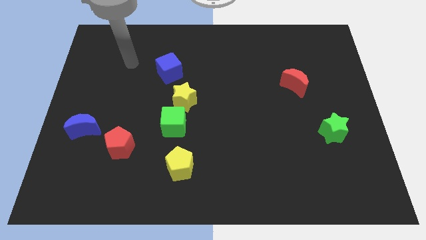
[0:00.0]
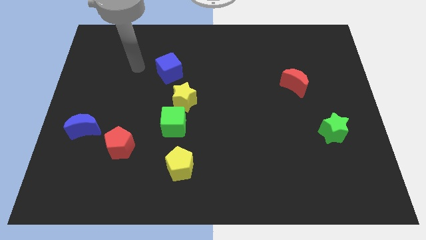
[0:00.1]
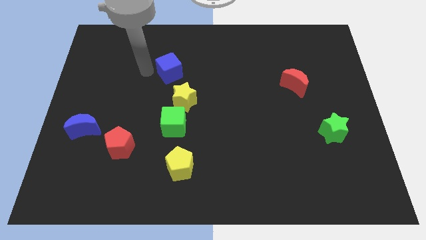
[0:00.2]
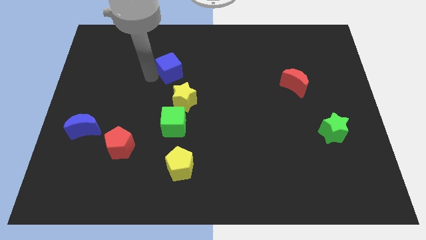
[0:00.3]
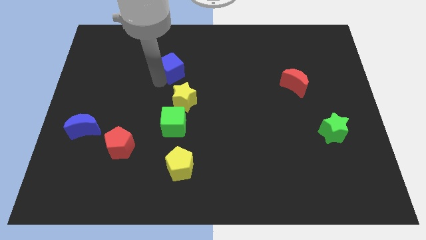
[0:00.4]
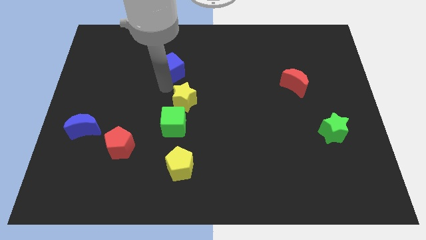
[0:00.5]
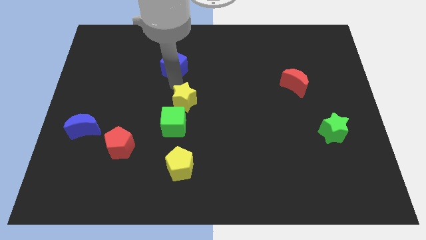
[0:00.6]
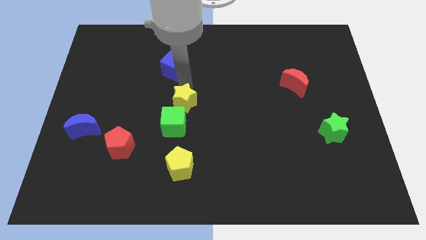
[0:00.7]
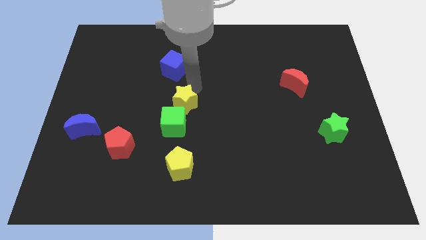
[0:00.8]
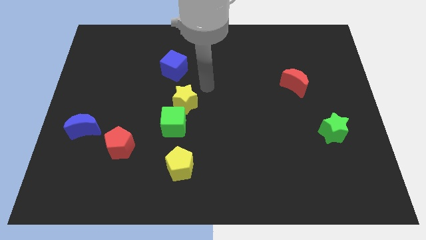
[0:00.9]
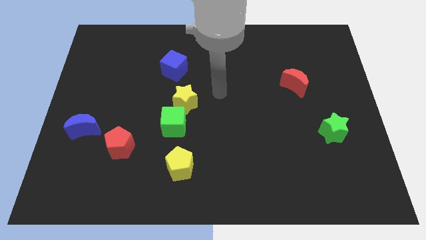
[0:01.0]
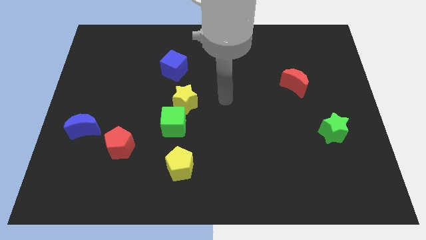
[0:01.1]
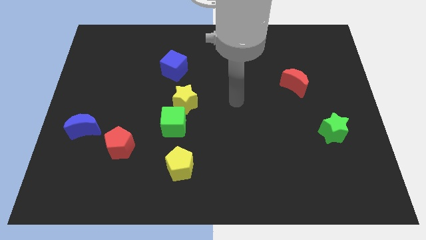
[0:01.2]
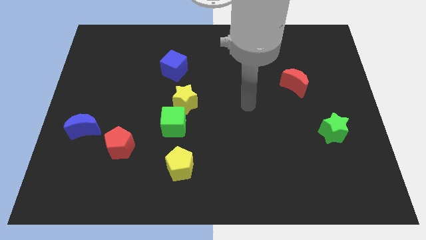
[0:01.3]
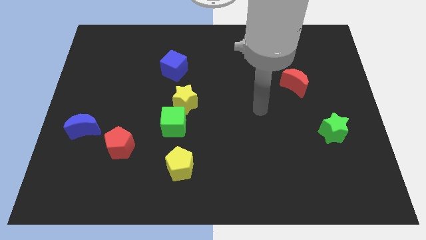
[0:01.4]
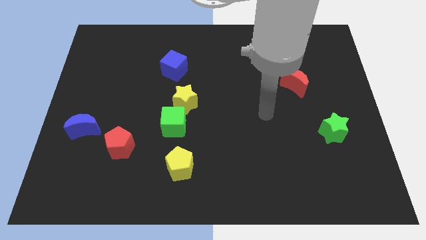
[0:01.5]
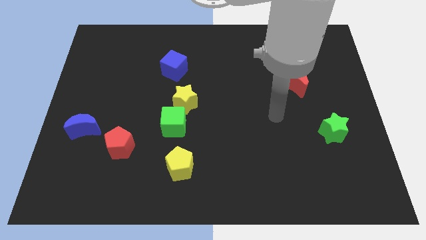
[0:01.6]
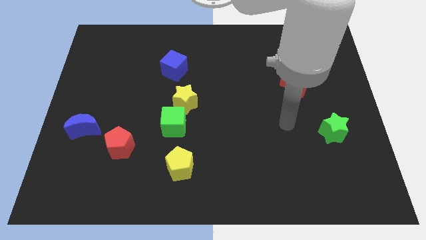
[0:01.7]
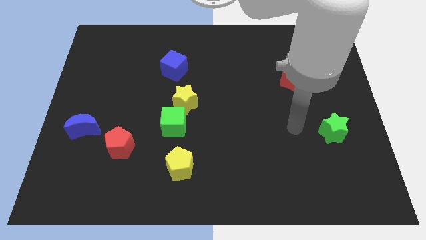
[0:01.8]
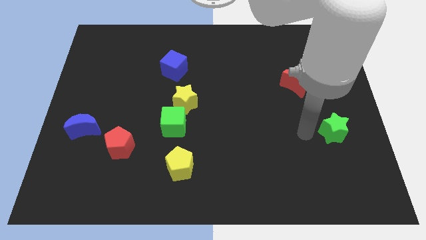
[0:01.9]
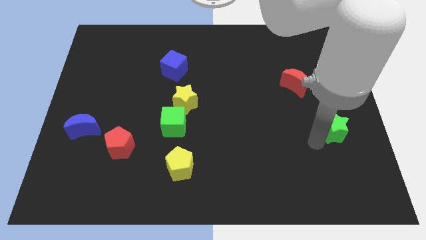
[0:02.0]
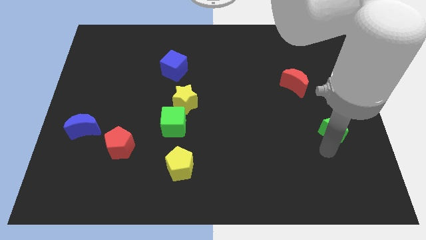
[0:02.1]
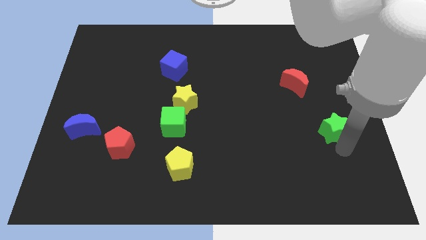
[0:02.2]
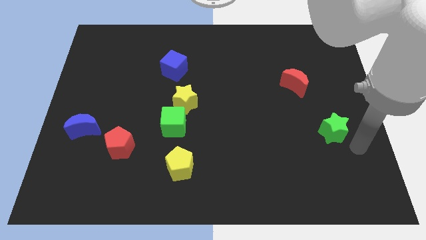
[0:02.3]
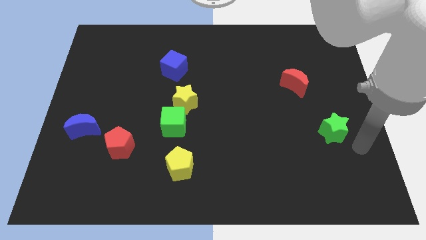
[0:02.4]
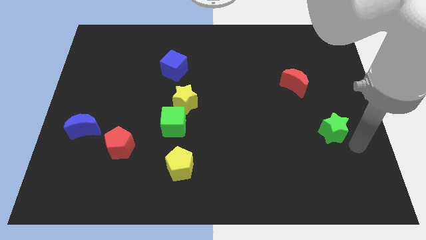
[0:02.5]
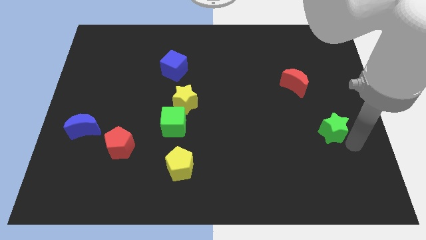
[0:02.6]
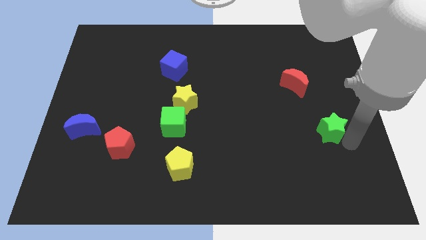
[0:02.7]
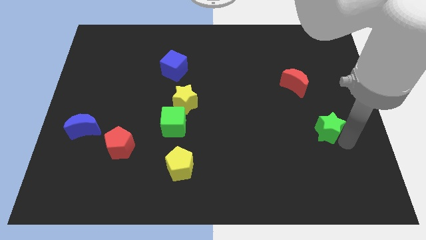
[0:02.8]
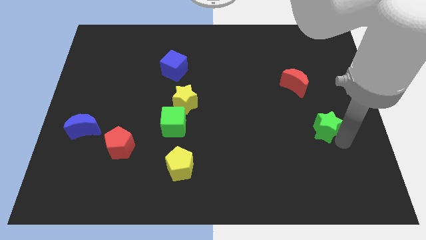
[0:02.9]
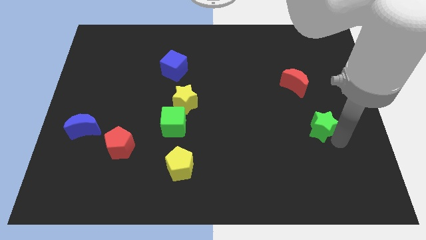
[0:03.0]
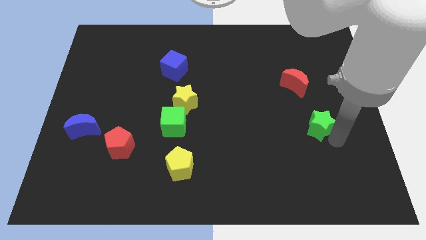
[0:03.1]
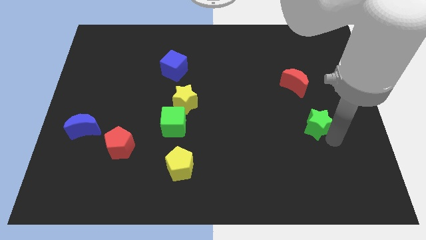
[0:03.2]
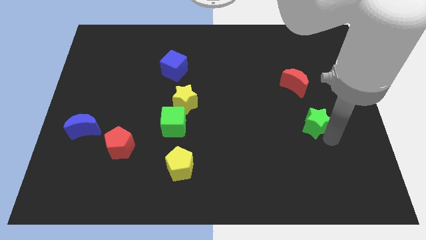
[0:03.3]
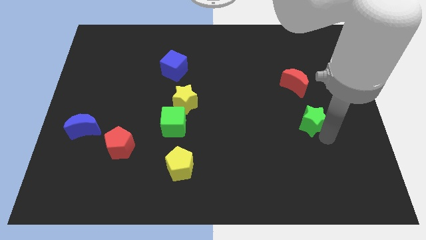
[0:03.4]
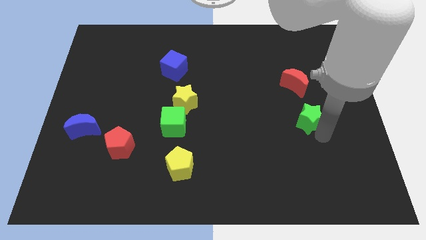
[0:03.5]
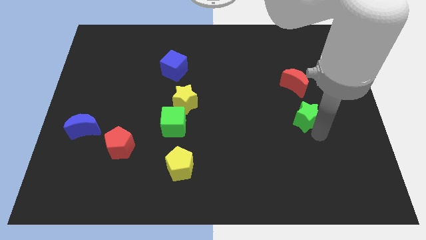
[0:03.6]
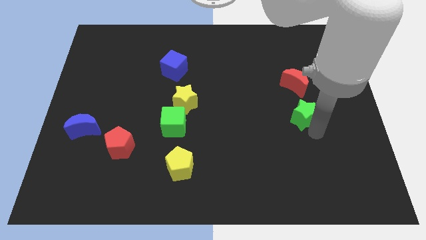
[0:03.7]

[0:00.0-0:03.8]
slide the green star somewhat upwards and to the left

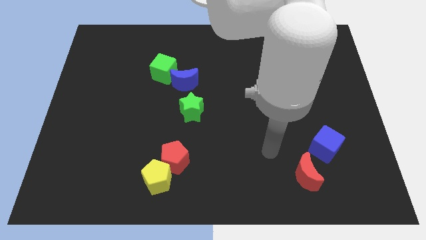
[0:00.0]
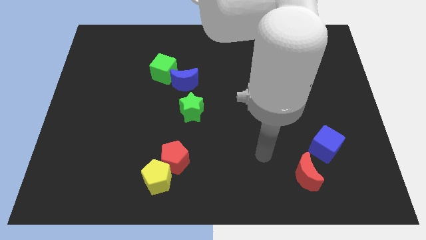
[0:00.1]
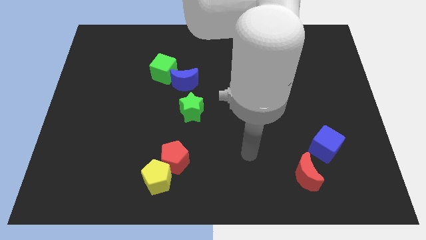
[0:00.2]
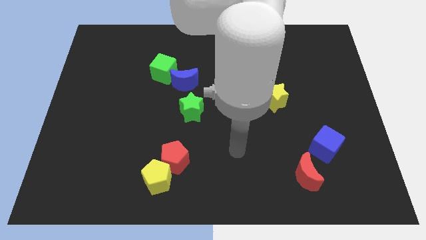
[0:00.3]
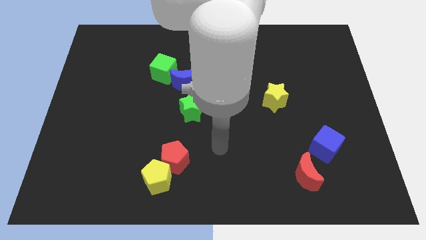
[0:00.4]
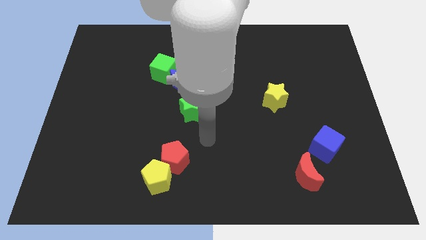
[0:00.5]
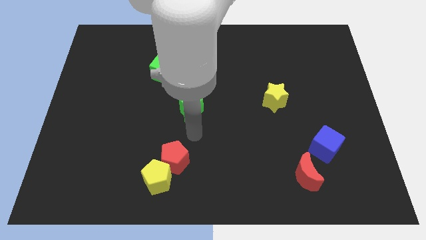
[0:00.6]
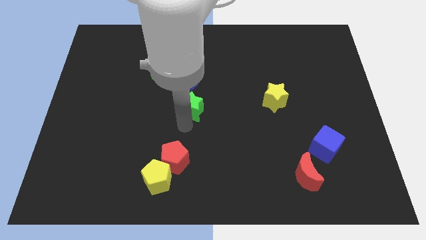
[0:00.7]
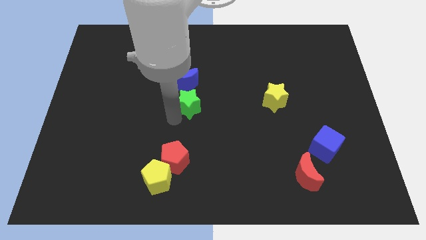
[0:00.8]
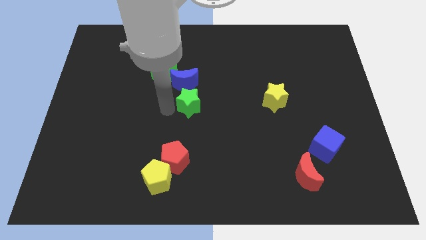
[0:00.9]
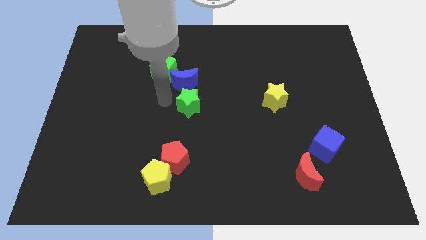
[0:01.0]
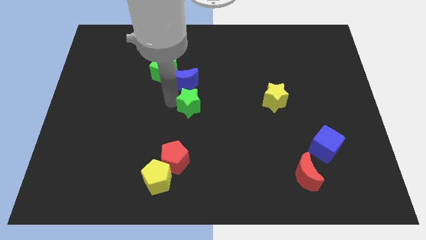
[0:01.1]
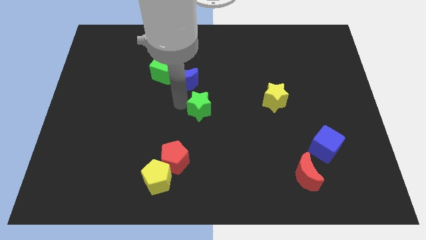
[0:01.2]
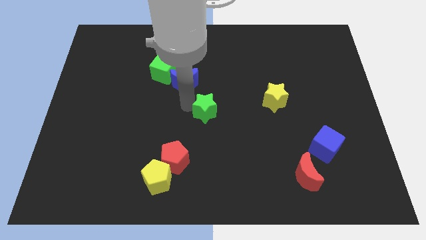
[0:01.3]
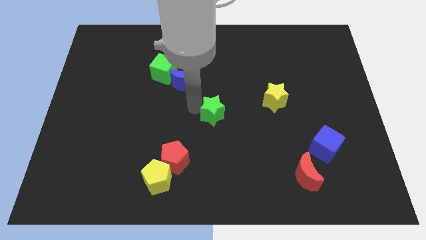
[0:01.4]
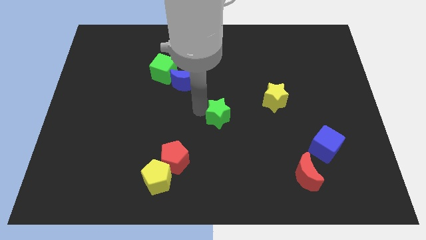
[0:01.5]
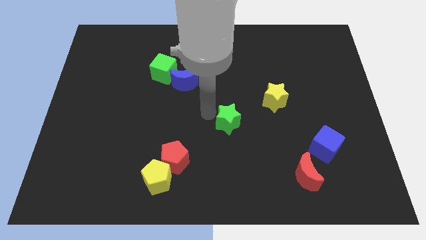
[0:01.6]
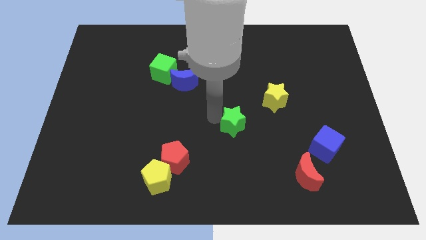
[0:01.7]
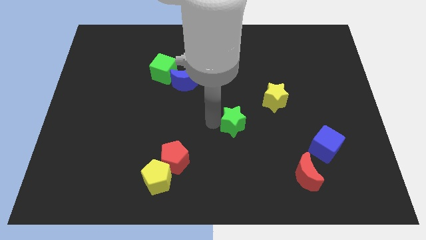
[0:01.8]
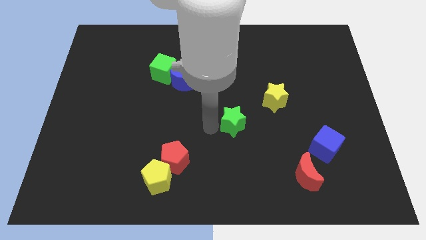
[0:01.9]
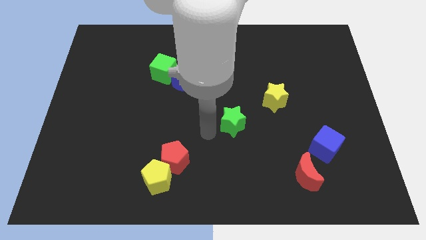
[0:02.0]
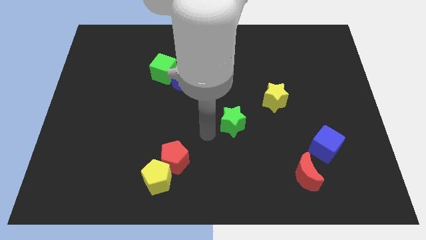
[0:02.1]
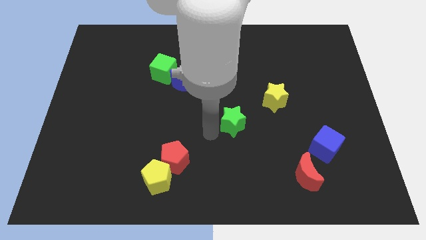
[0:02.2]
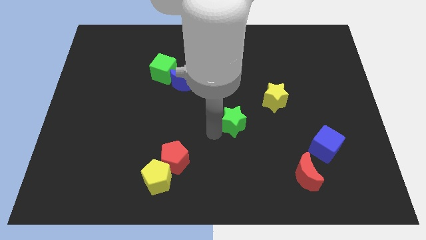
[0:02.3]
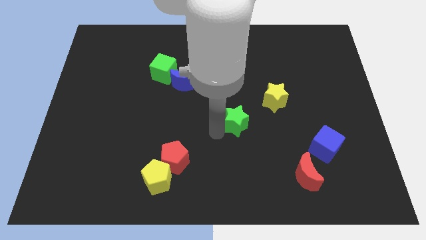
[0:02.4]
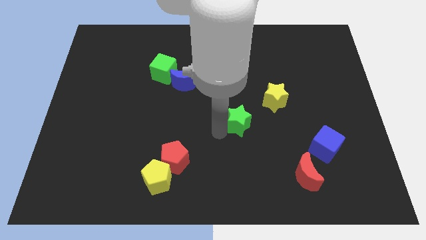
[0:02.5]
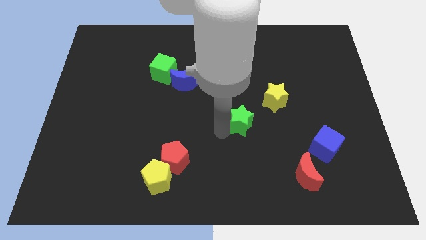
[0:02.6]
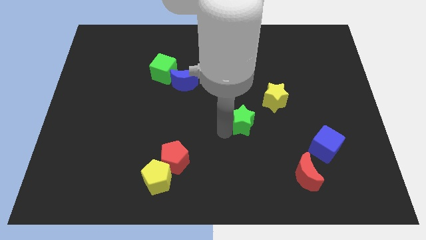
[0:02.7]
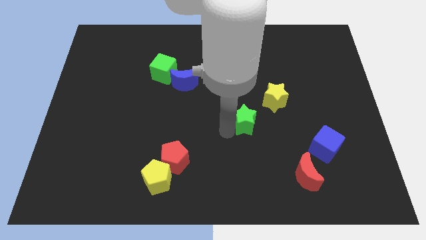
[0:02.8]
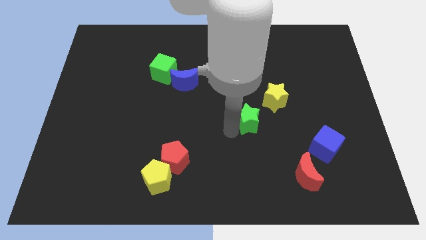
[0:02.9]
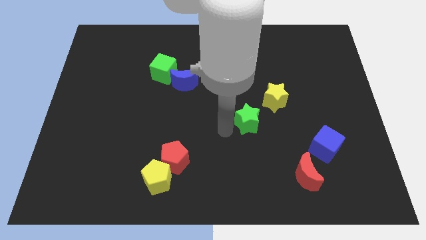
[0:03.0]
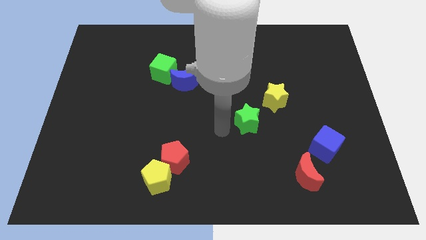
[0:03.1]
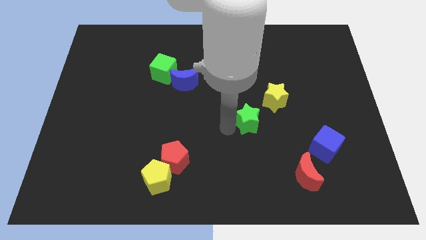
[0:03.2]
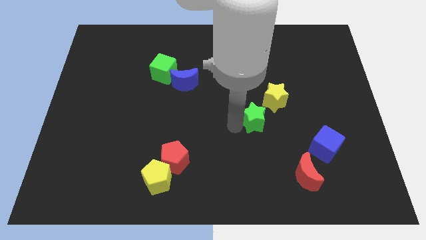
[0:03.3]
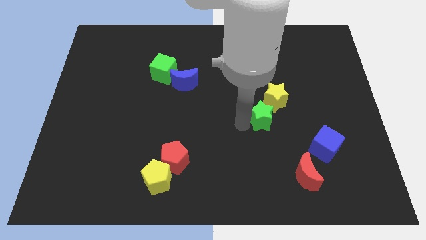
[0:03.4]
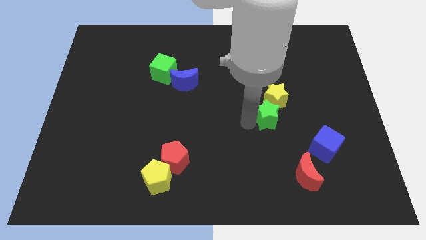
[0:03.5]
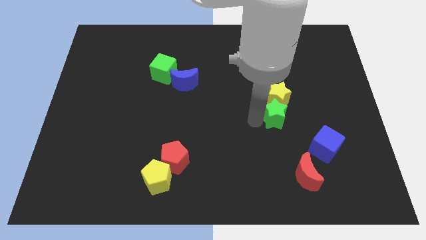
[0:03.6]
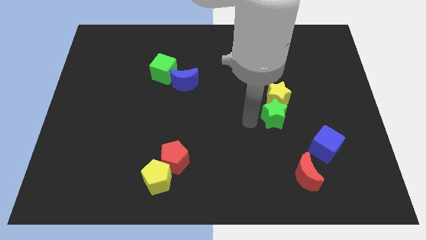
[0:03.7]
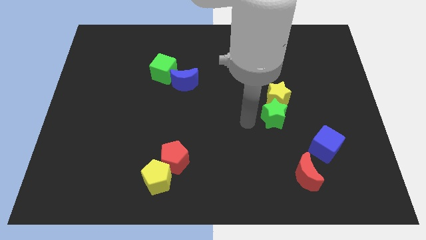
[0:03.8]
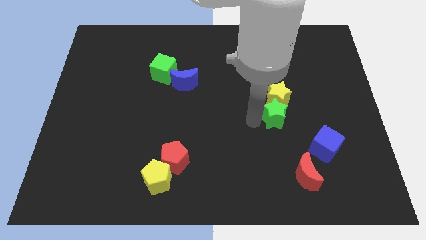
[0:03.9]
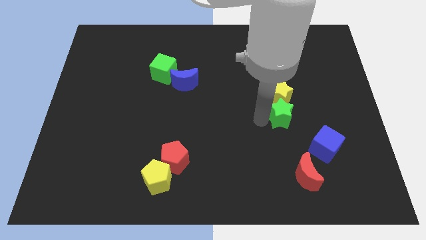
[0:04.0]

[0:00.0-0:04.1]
push the green star right

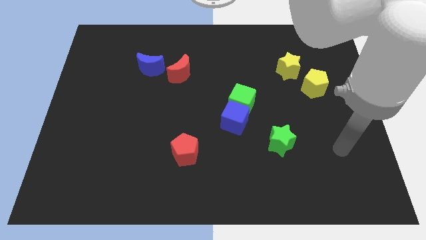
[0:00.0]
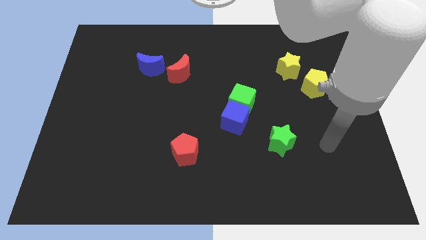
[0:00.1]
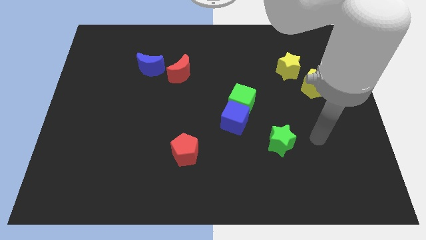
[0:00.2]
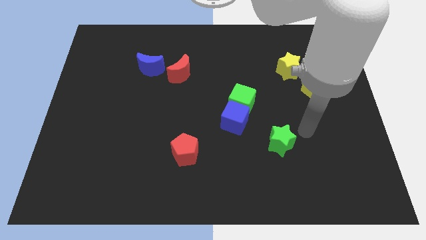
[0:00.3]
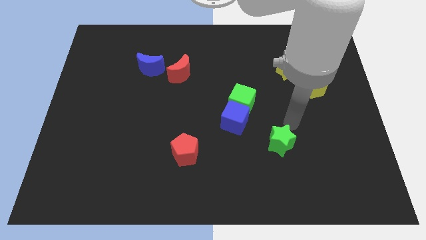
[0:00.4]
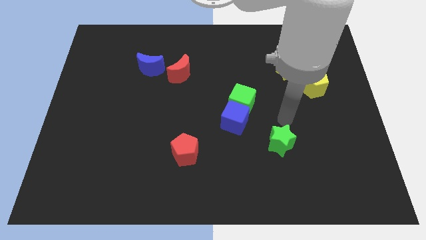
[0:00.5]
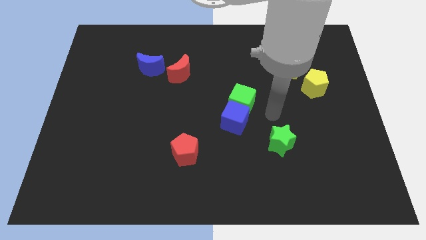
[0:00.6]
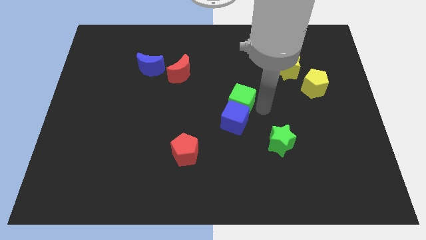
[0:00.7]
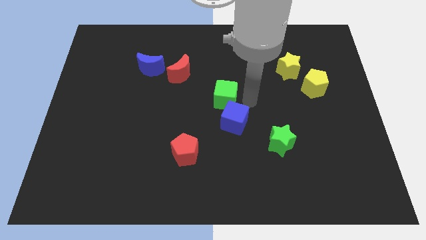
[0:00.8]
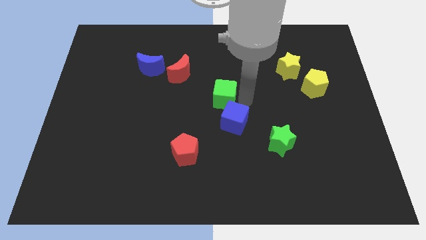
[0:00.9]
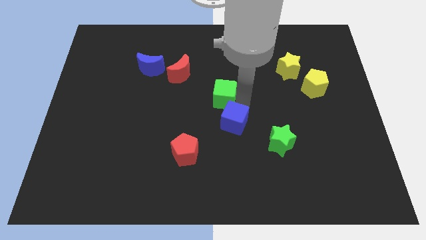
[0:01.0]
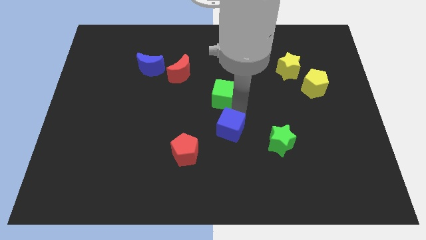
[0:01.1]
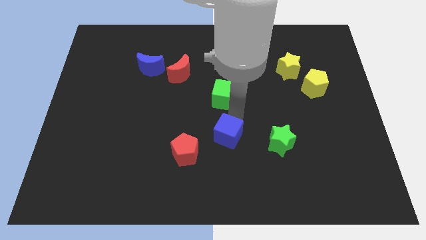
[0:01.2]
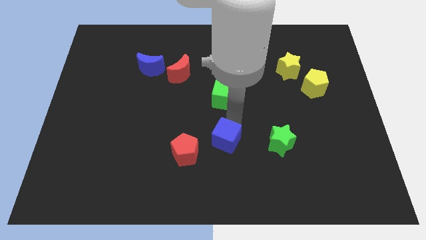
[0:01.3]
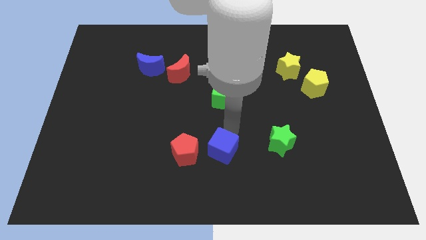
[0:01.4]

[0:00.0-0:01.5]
push the blue cube a little diagonally down and left
